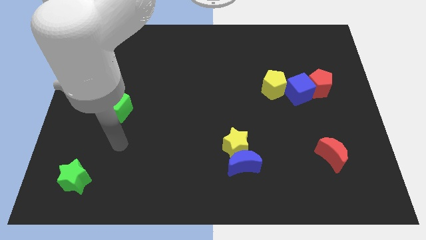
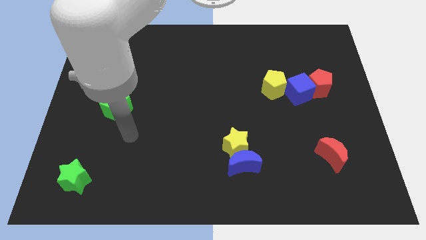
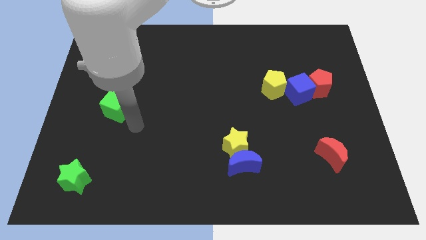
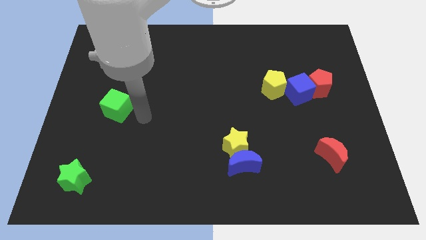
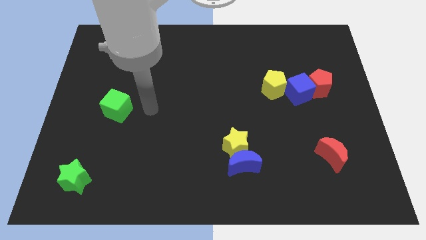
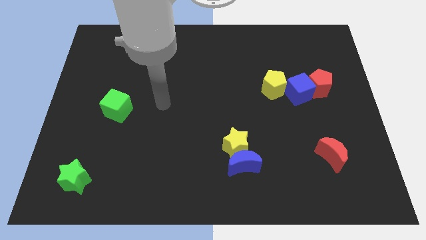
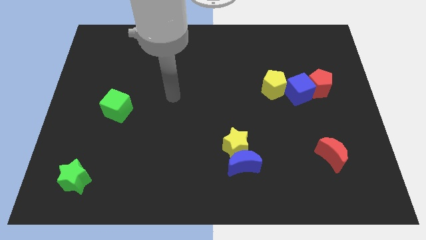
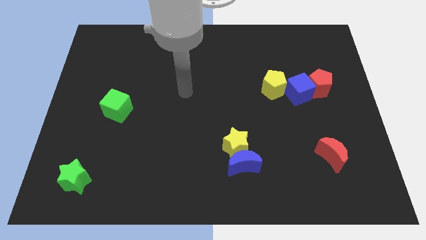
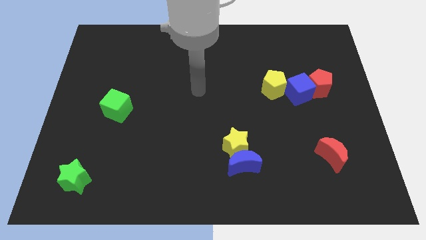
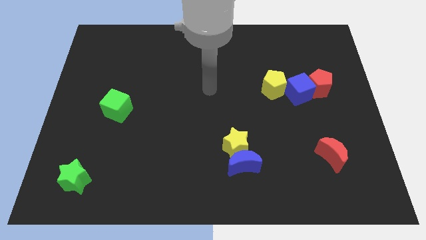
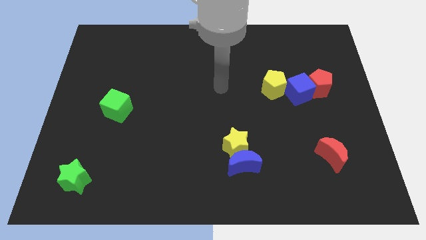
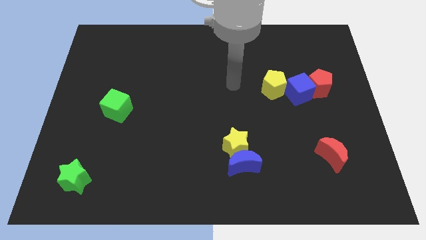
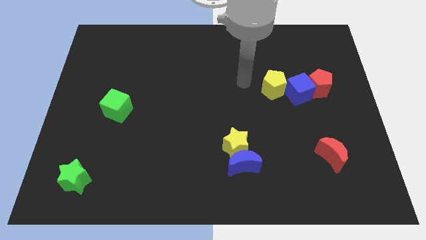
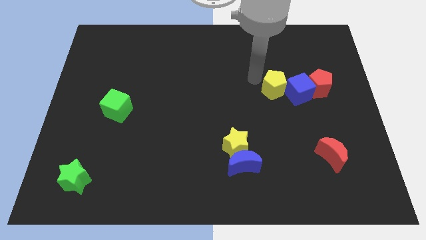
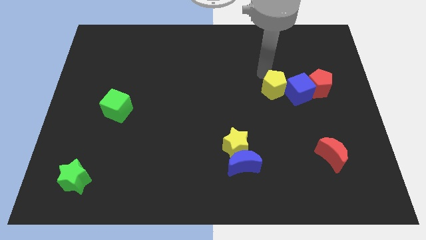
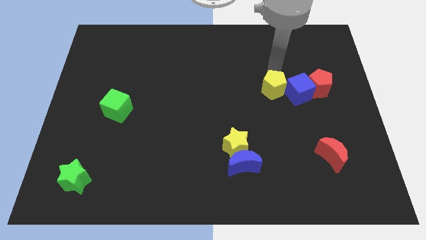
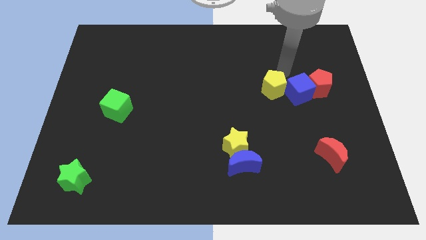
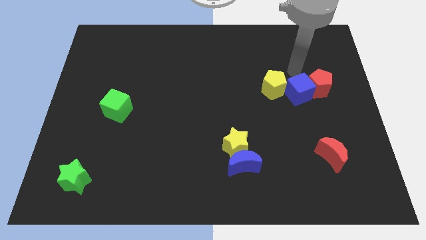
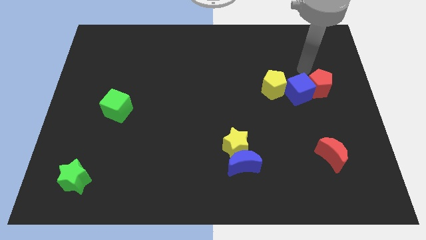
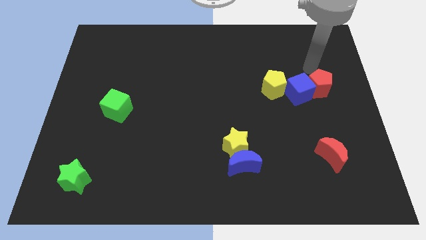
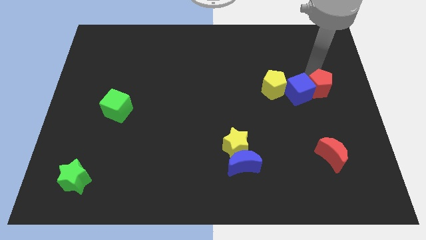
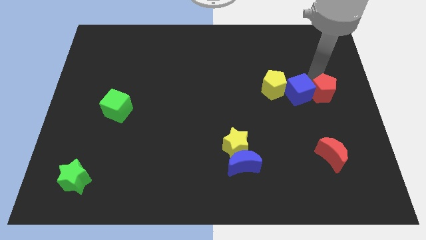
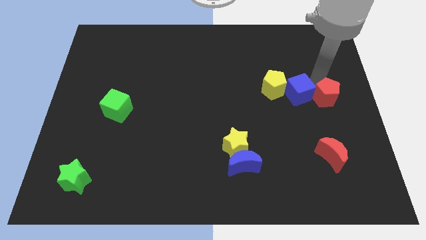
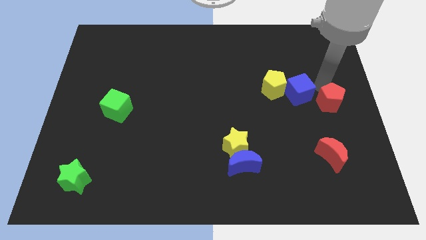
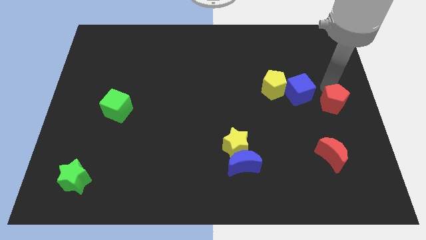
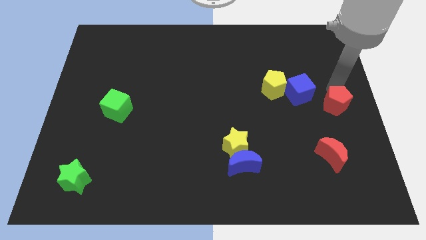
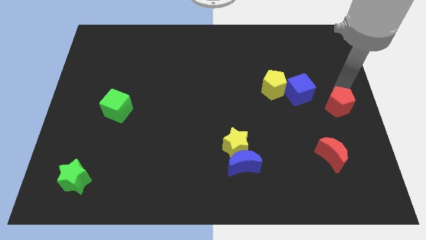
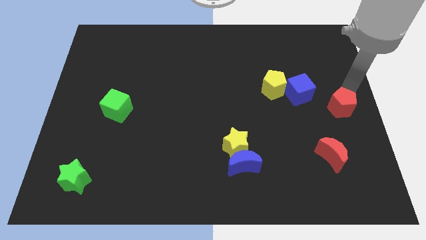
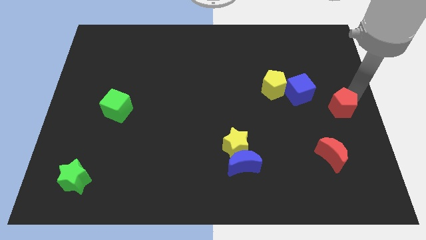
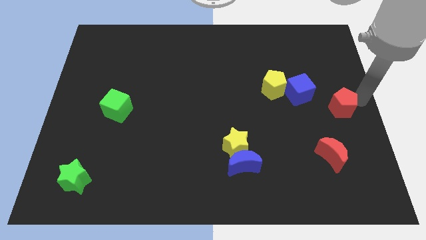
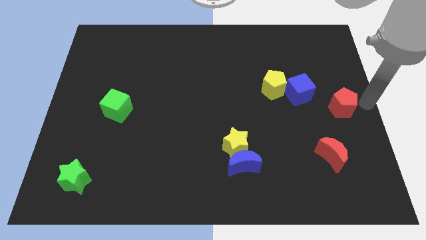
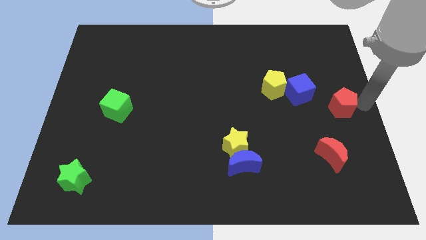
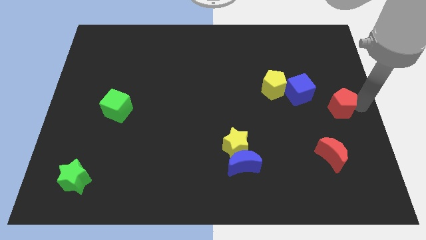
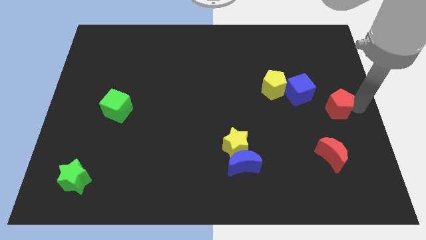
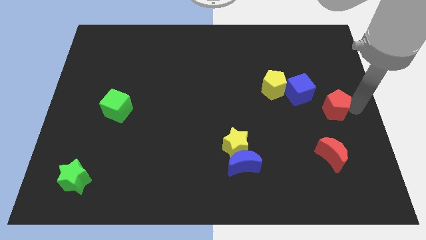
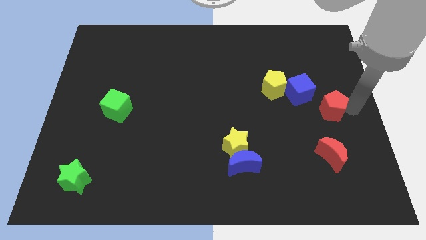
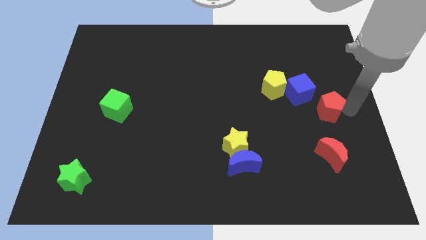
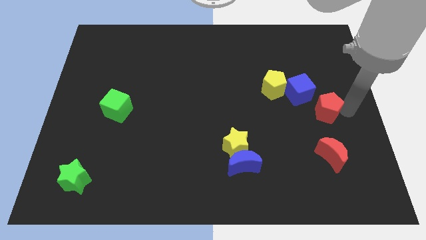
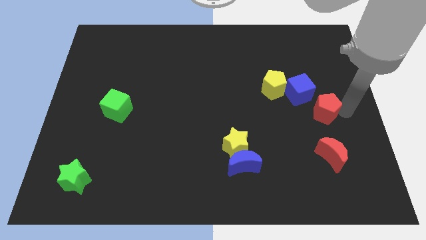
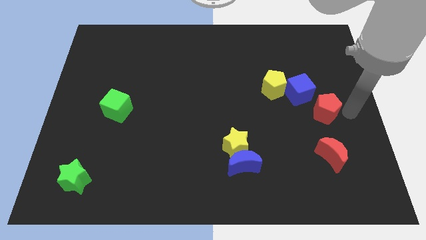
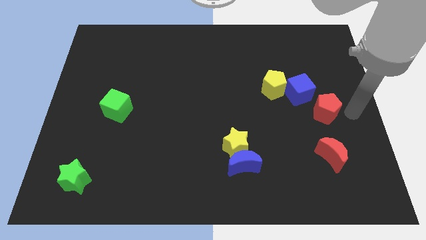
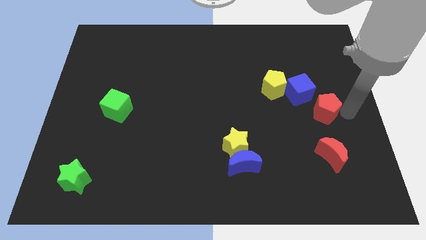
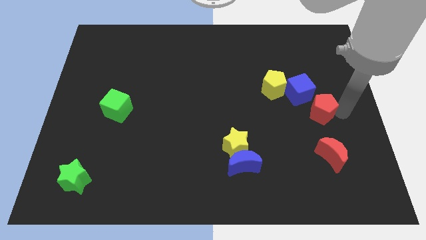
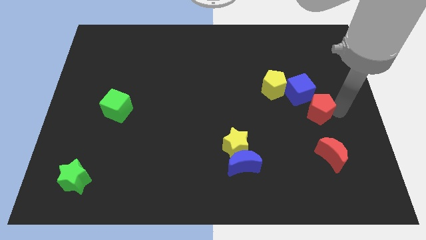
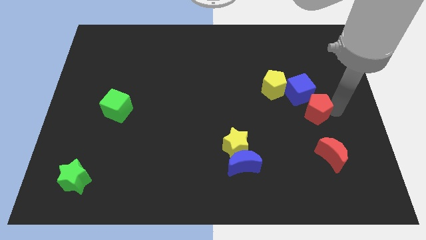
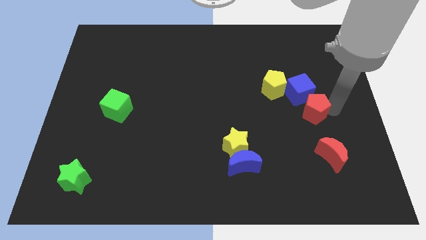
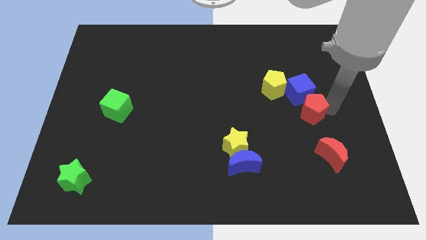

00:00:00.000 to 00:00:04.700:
slightly move the red pentagon diagonally down and left

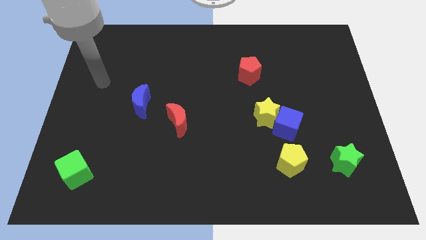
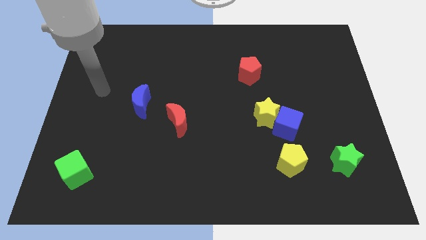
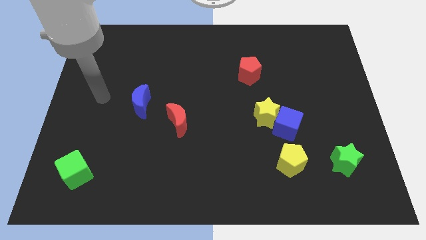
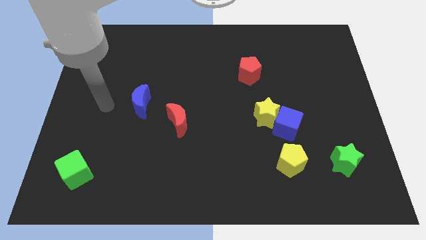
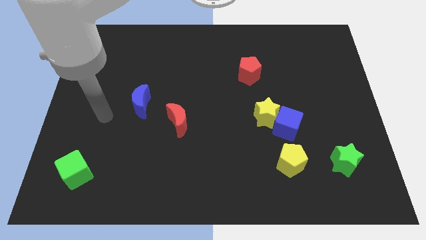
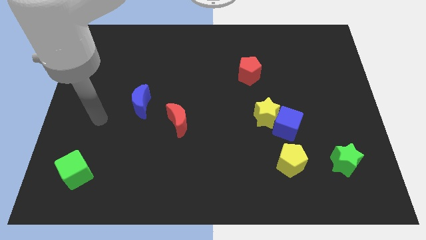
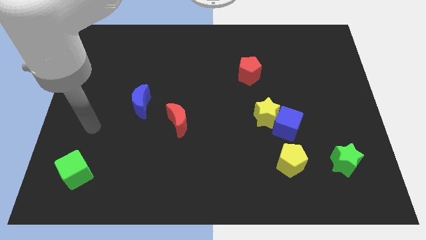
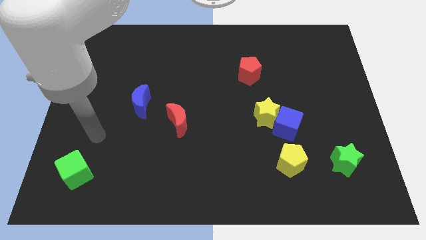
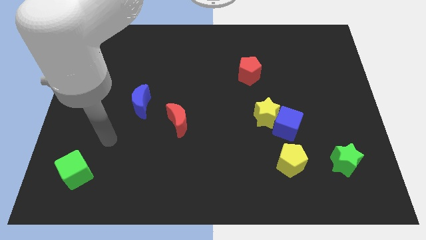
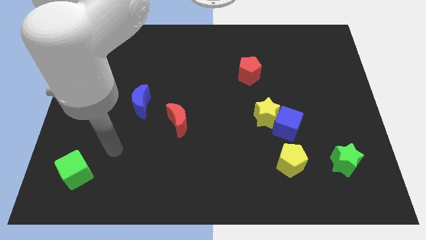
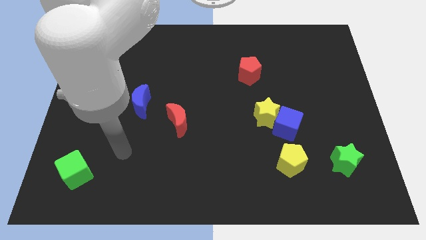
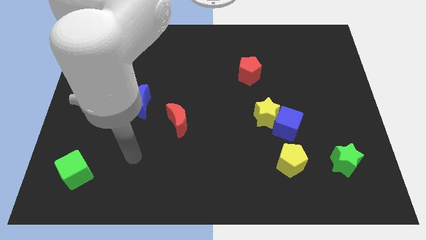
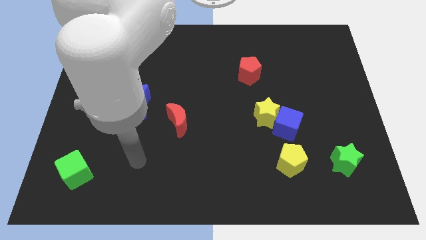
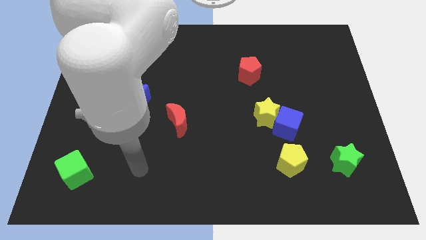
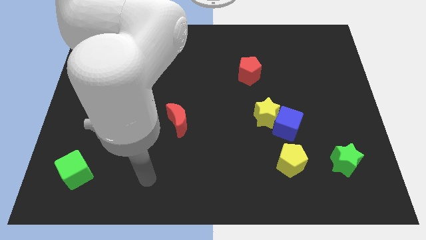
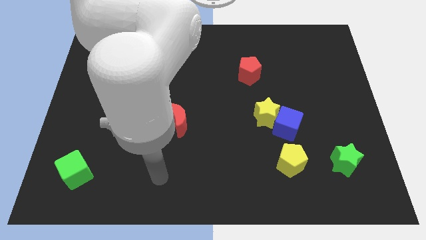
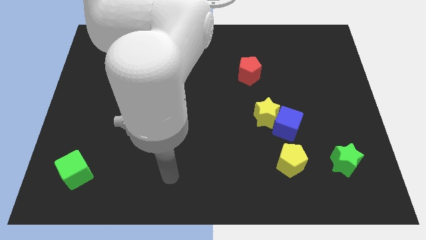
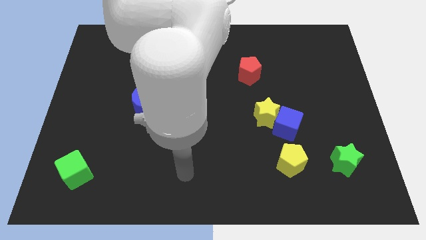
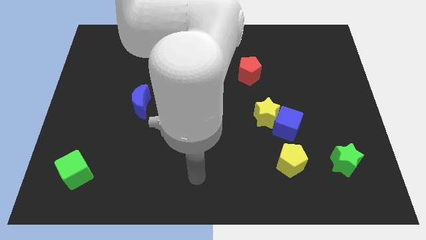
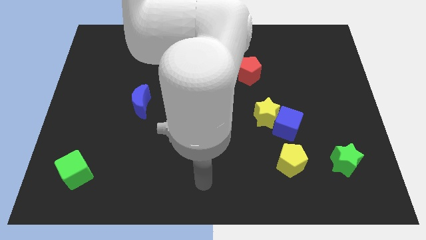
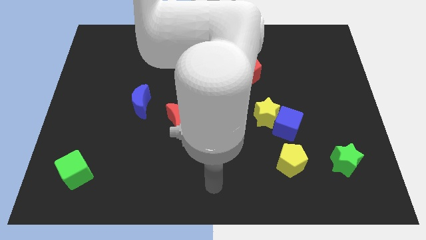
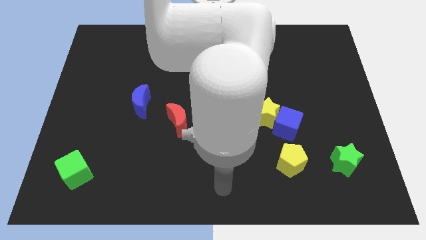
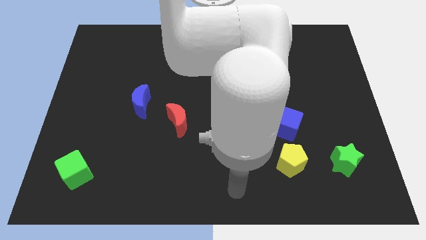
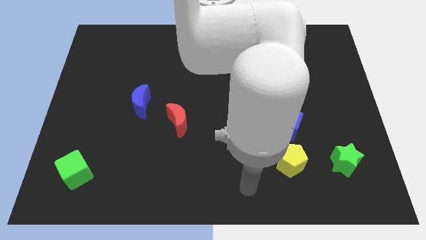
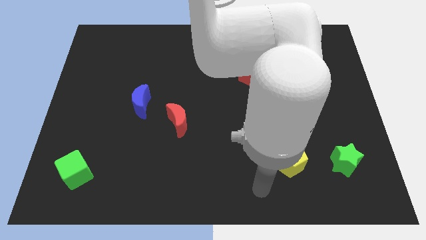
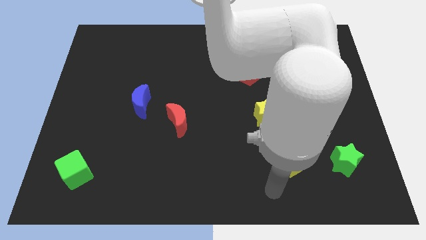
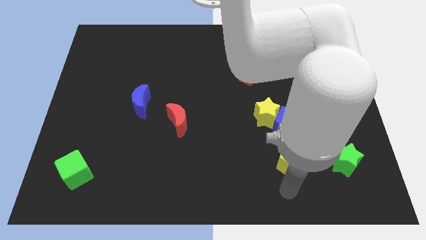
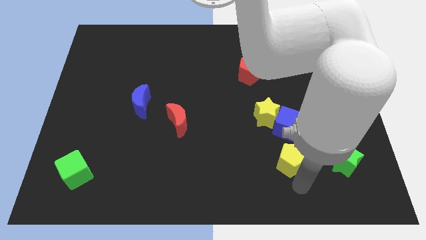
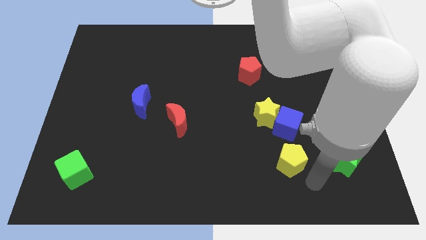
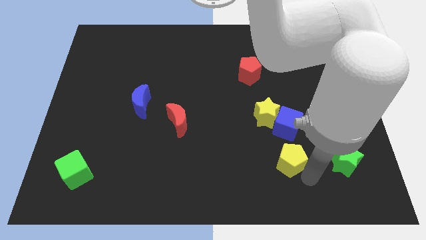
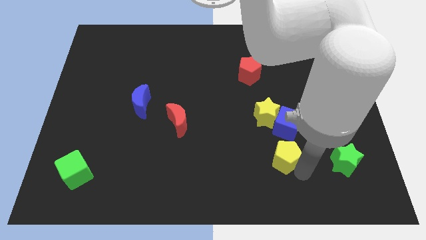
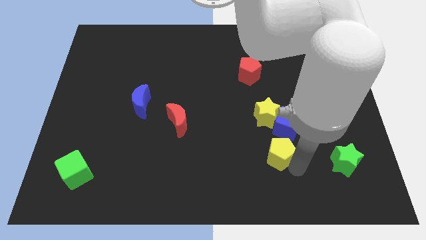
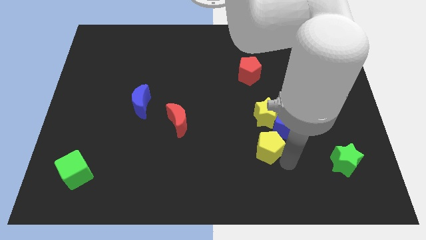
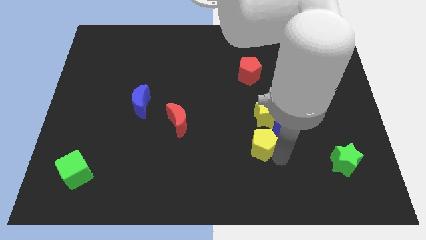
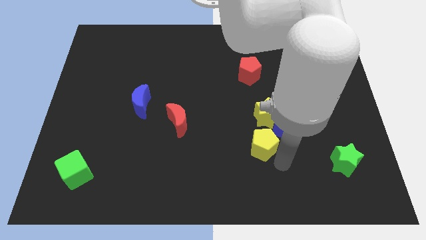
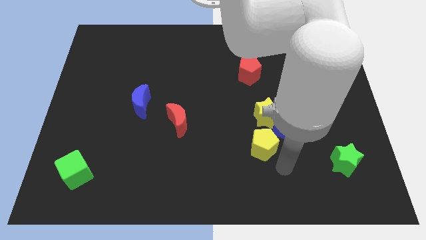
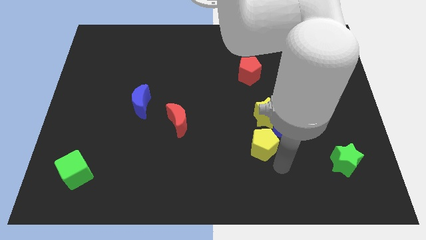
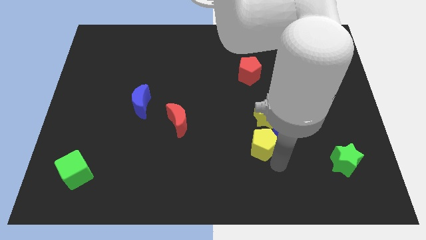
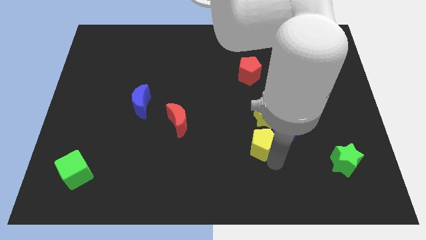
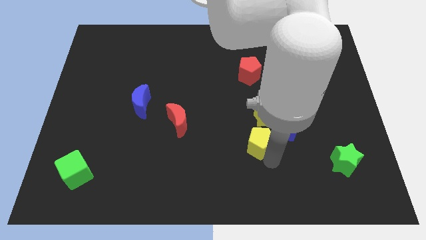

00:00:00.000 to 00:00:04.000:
slide the yellow pentagon slightly upwards and to the left
